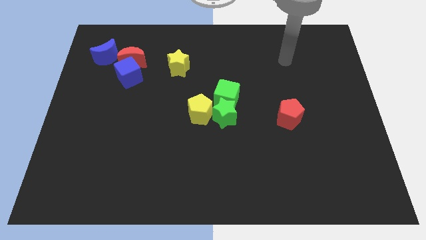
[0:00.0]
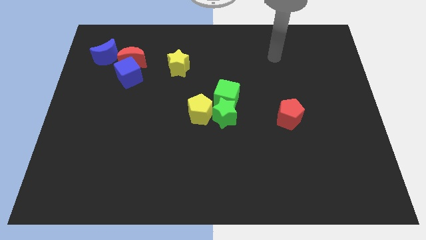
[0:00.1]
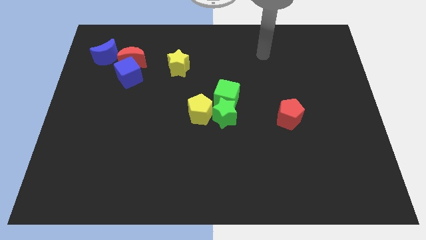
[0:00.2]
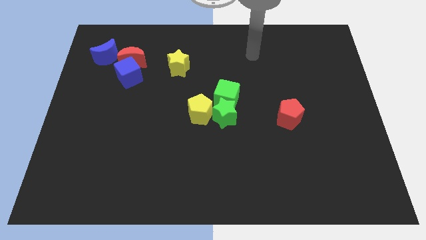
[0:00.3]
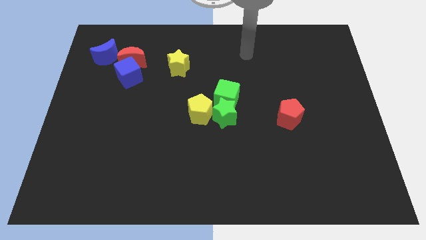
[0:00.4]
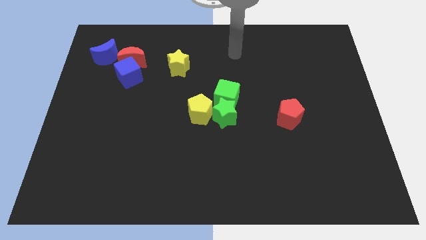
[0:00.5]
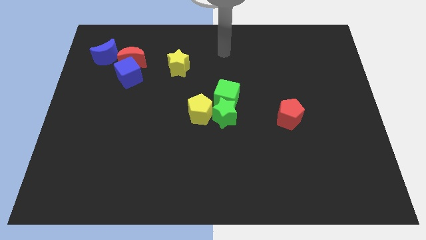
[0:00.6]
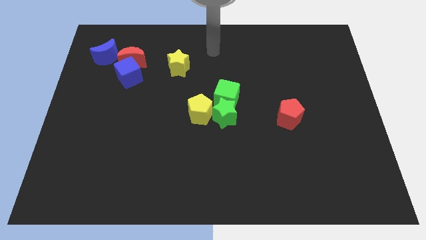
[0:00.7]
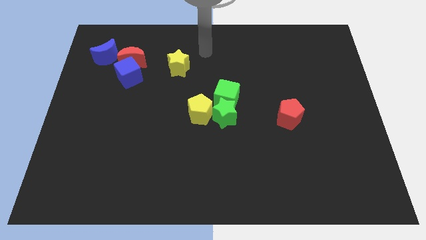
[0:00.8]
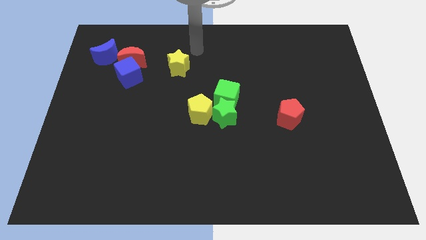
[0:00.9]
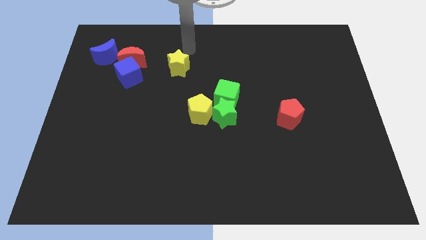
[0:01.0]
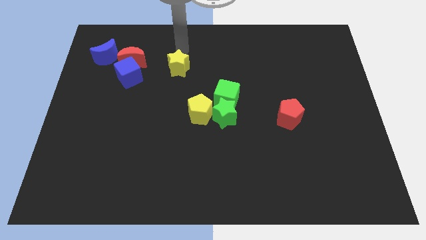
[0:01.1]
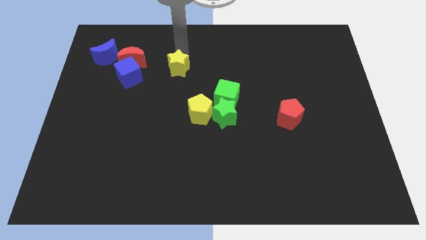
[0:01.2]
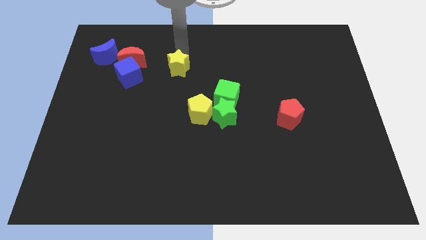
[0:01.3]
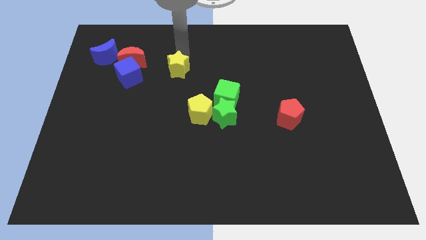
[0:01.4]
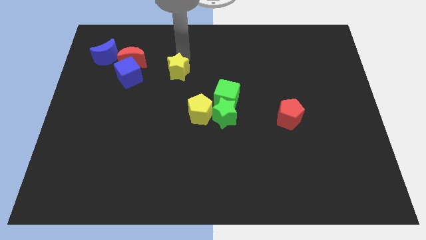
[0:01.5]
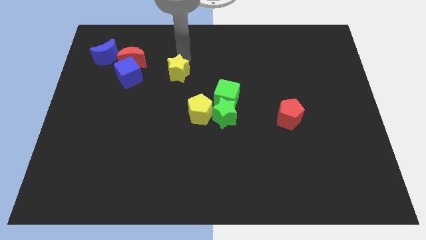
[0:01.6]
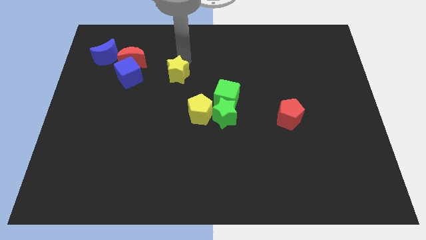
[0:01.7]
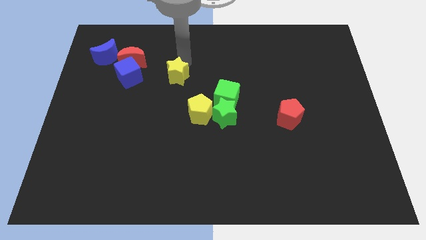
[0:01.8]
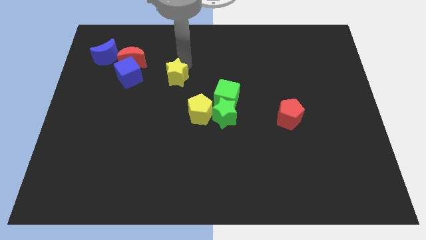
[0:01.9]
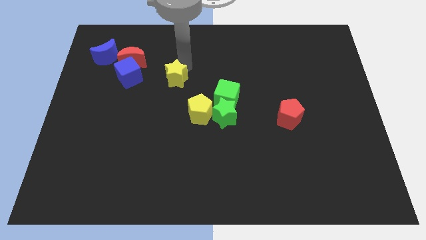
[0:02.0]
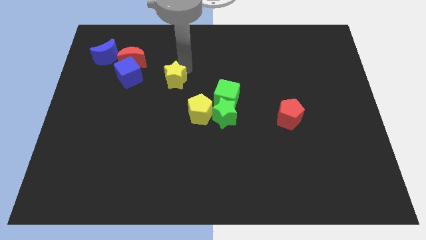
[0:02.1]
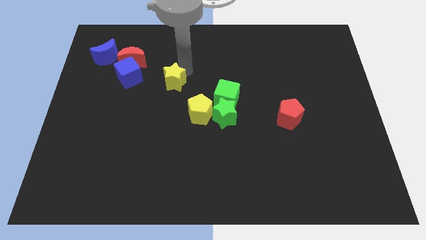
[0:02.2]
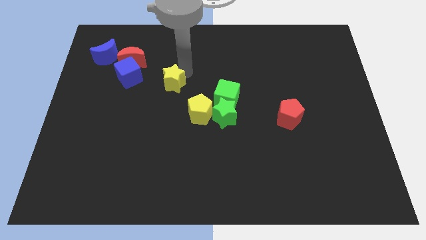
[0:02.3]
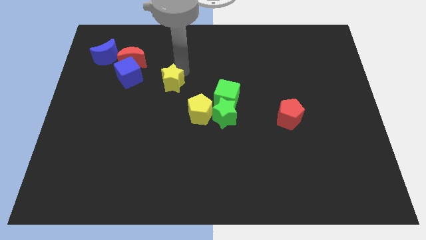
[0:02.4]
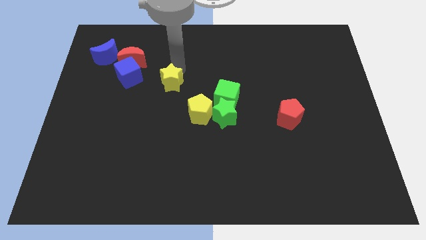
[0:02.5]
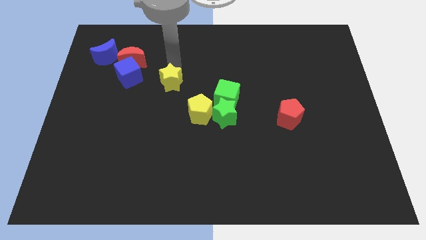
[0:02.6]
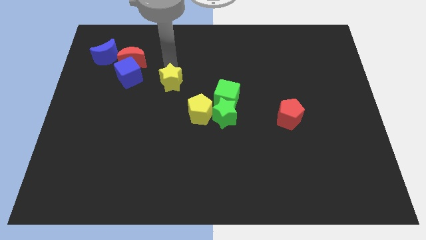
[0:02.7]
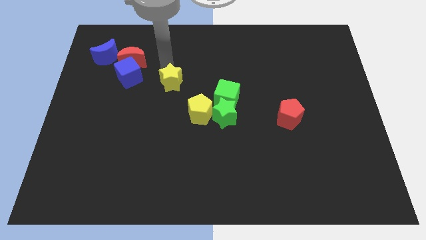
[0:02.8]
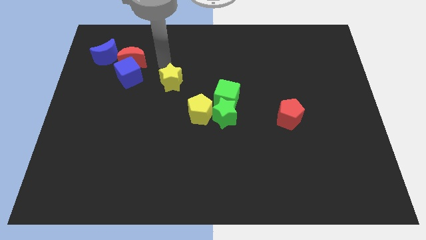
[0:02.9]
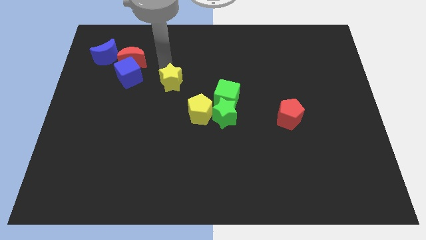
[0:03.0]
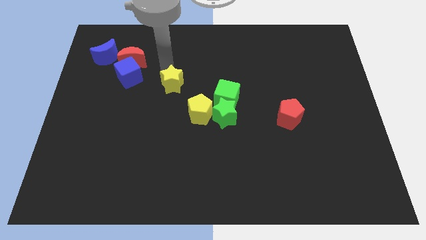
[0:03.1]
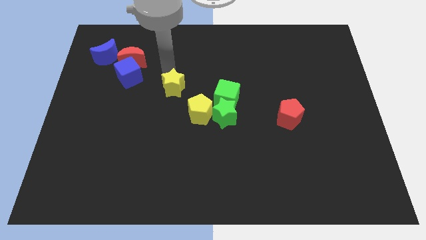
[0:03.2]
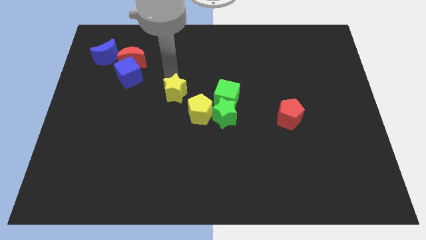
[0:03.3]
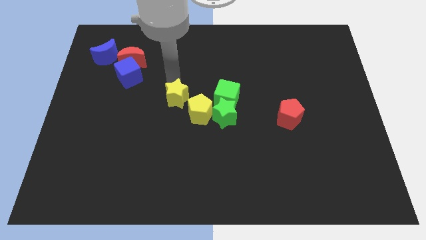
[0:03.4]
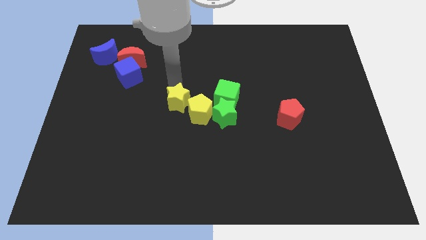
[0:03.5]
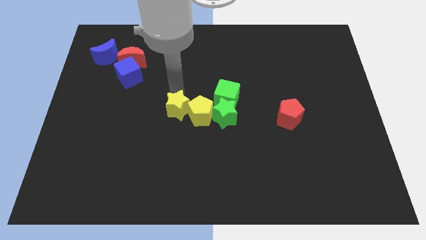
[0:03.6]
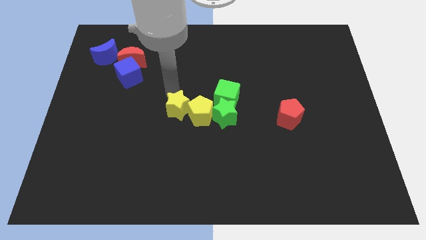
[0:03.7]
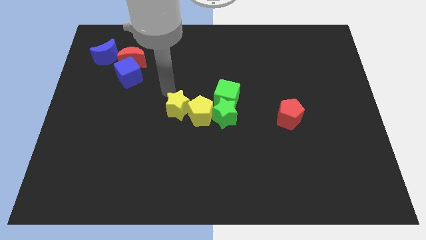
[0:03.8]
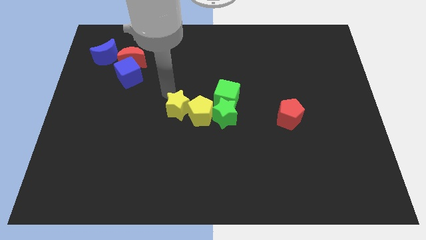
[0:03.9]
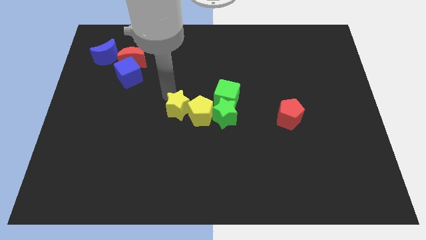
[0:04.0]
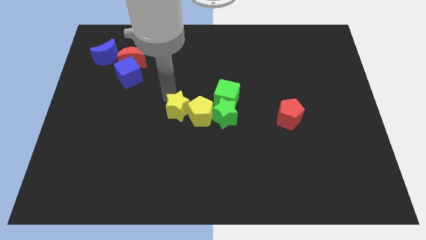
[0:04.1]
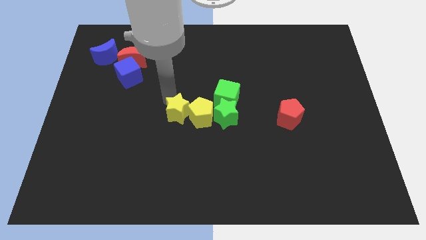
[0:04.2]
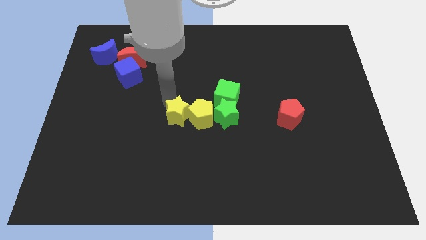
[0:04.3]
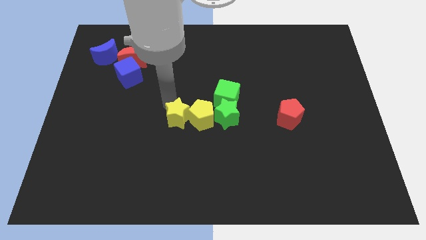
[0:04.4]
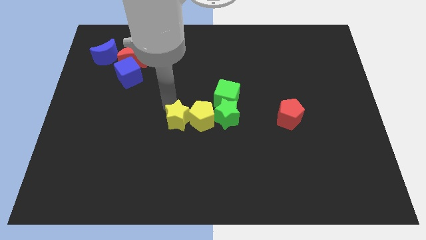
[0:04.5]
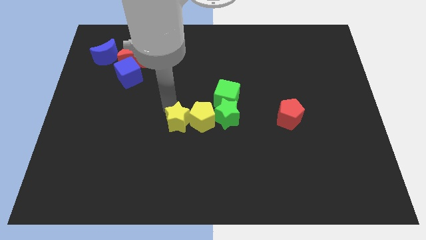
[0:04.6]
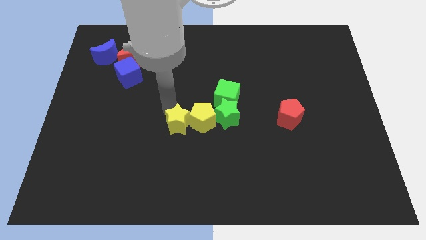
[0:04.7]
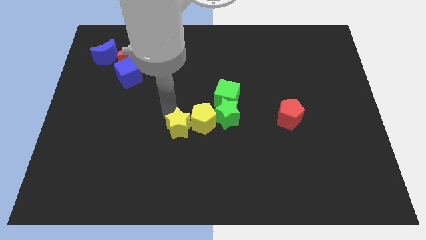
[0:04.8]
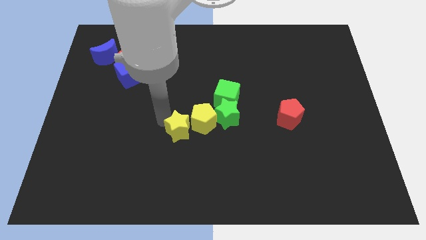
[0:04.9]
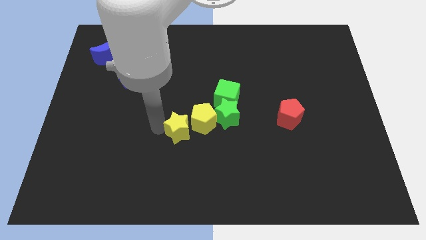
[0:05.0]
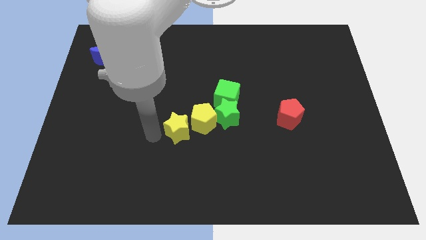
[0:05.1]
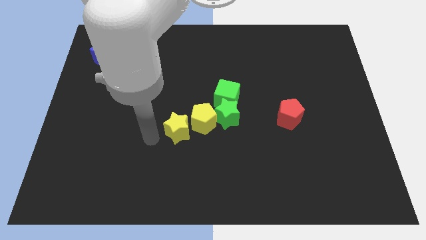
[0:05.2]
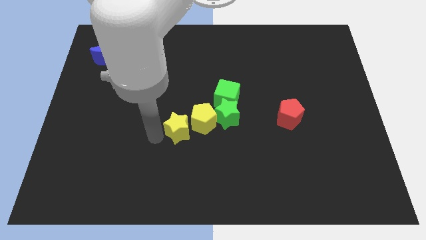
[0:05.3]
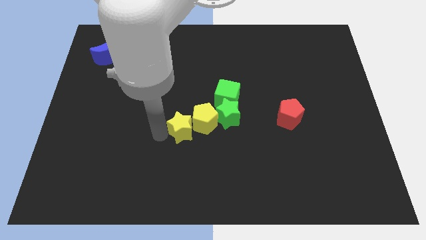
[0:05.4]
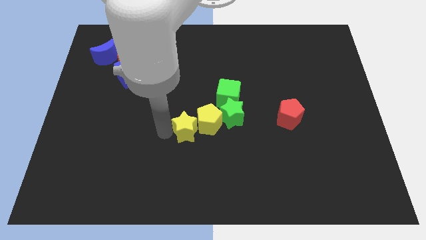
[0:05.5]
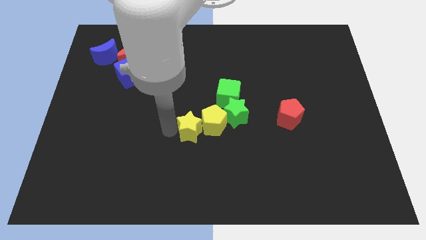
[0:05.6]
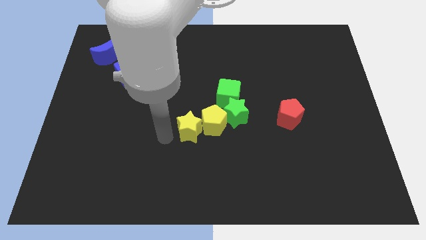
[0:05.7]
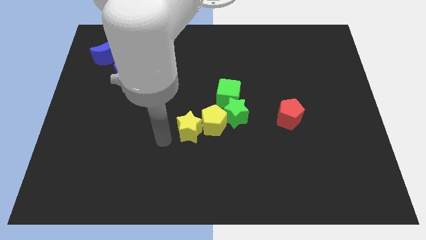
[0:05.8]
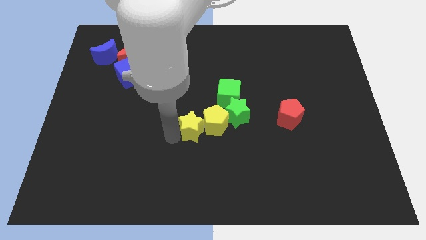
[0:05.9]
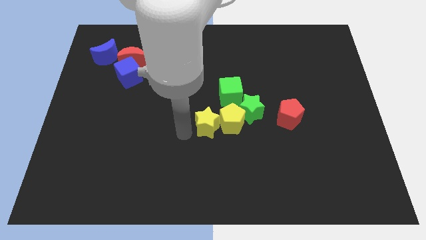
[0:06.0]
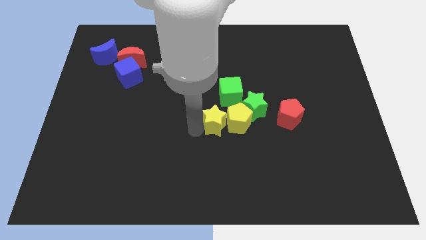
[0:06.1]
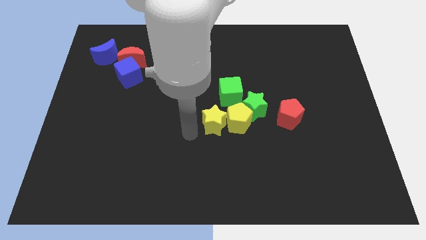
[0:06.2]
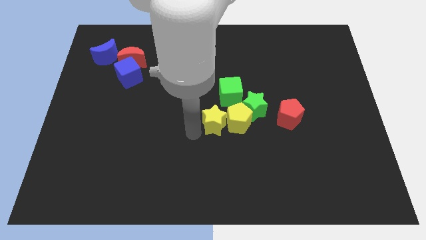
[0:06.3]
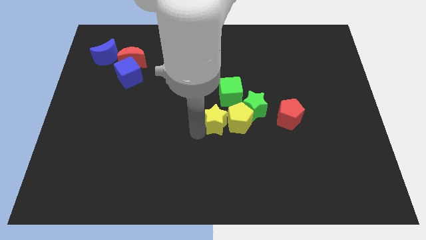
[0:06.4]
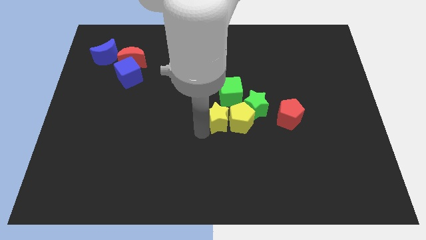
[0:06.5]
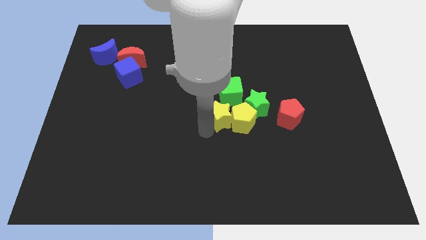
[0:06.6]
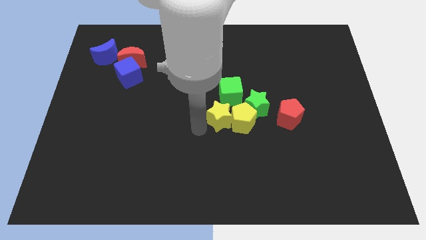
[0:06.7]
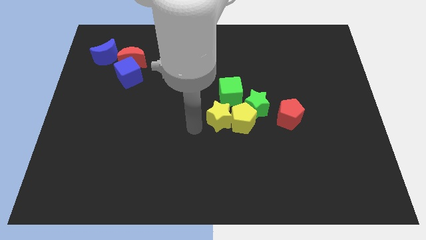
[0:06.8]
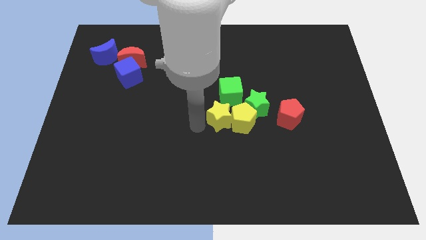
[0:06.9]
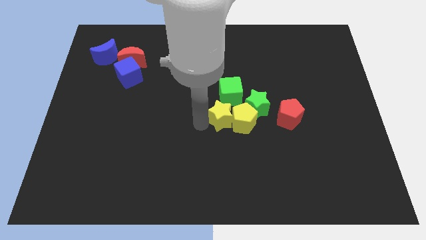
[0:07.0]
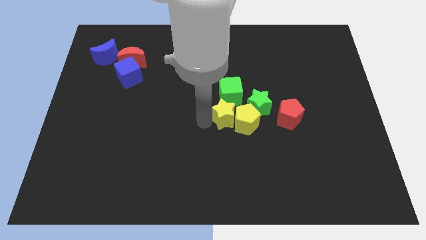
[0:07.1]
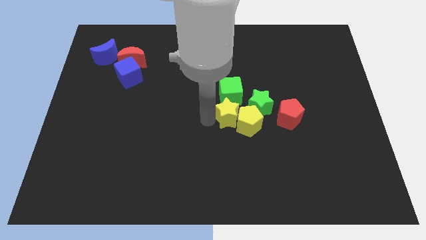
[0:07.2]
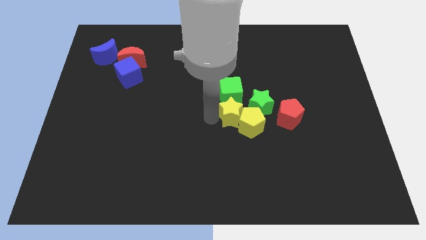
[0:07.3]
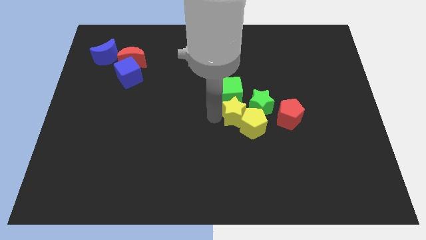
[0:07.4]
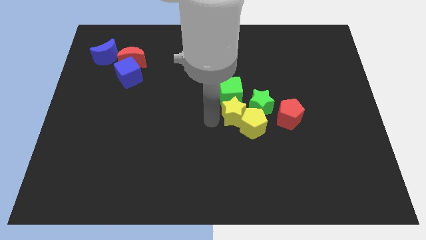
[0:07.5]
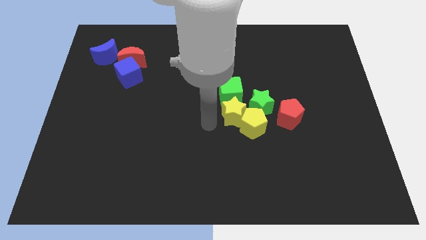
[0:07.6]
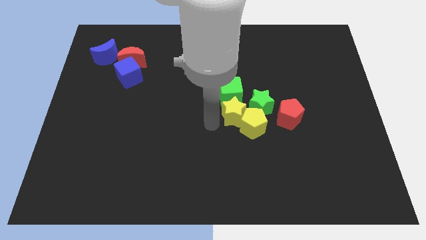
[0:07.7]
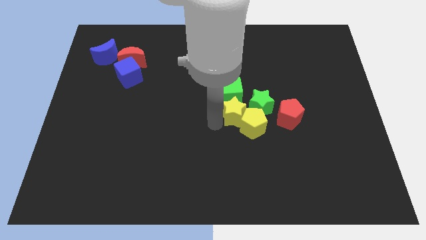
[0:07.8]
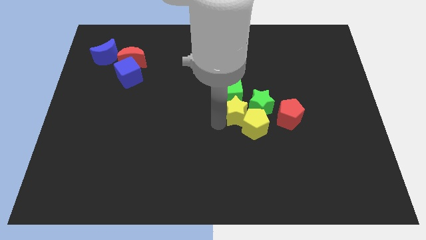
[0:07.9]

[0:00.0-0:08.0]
slide the yellow star next to the green star
